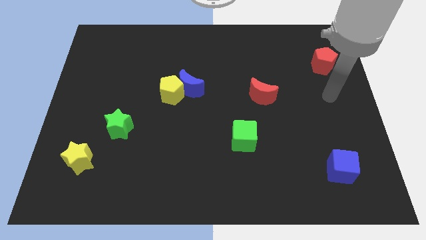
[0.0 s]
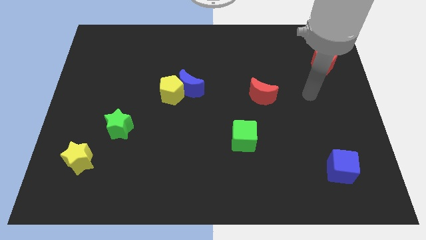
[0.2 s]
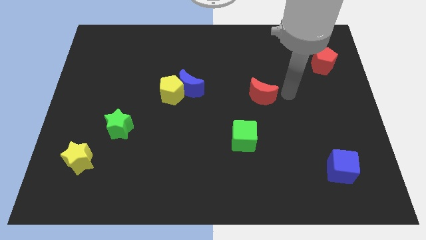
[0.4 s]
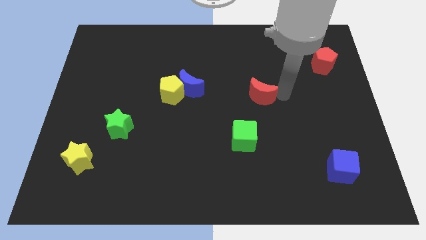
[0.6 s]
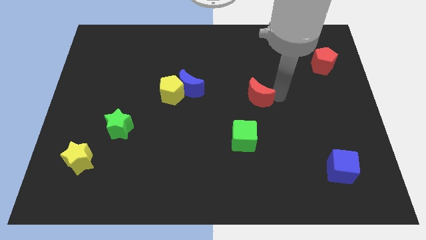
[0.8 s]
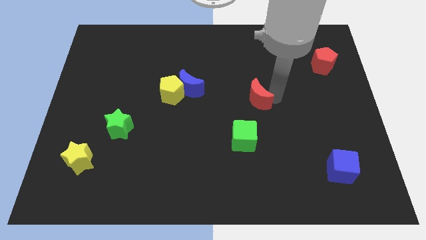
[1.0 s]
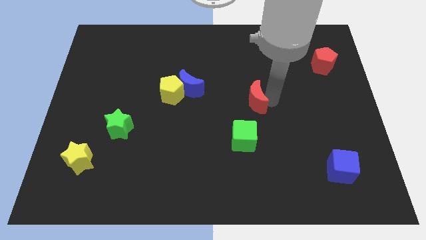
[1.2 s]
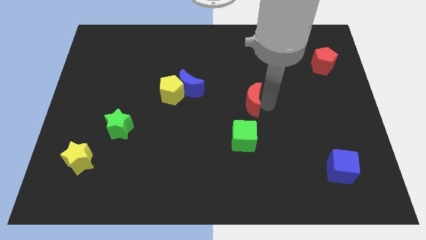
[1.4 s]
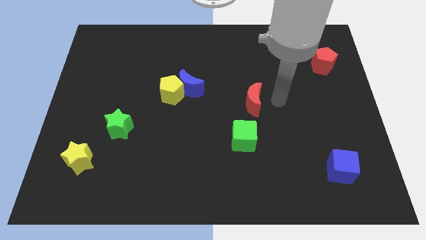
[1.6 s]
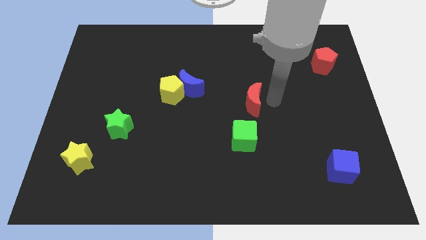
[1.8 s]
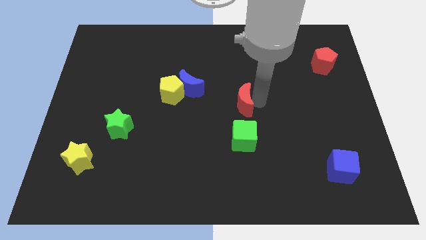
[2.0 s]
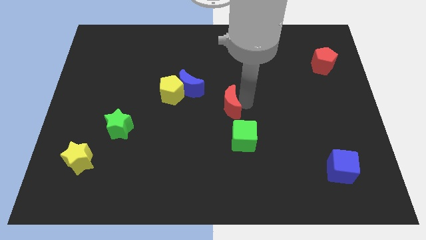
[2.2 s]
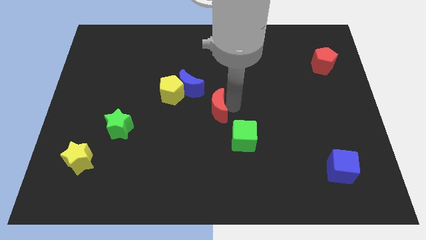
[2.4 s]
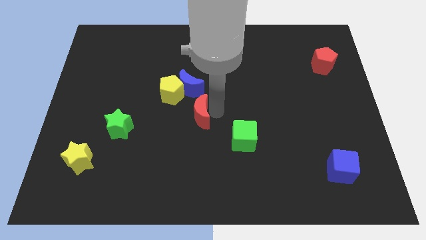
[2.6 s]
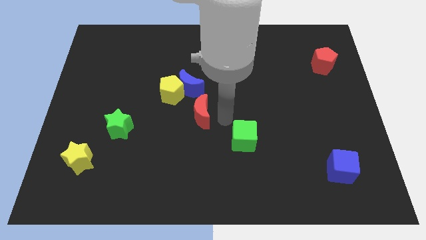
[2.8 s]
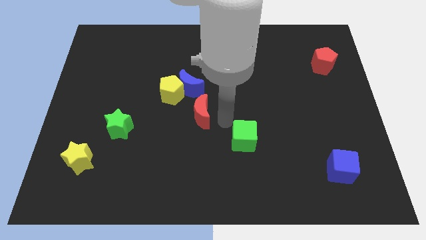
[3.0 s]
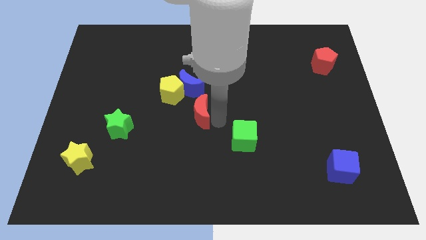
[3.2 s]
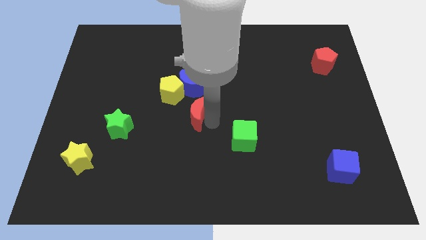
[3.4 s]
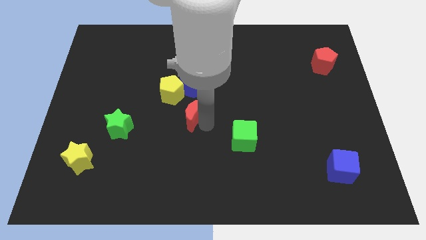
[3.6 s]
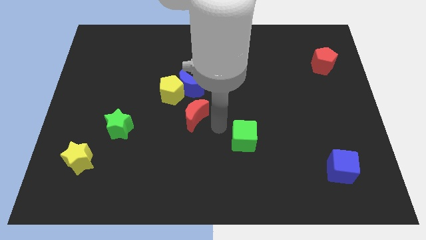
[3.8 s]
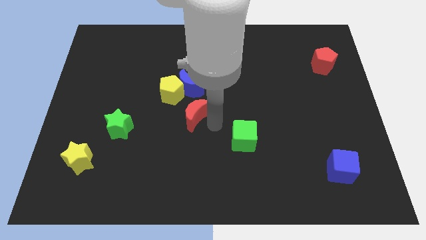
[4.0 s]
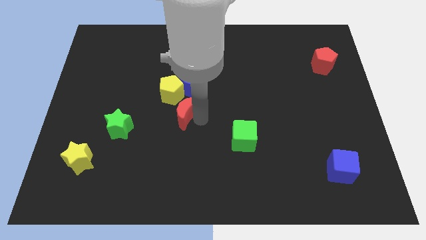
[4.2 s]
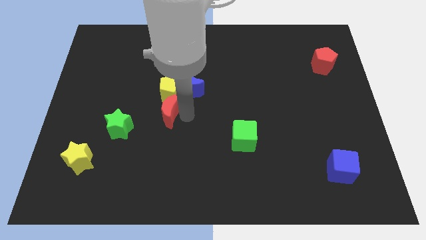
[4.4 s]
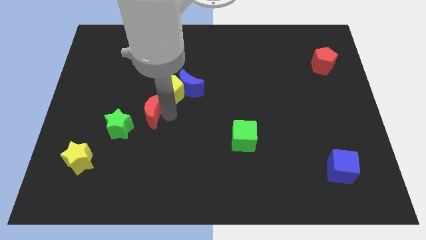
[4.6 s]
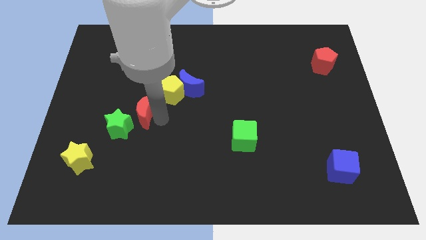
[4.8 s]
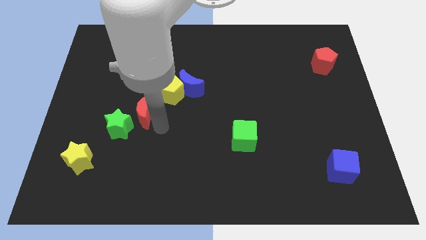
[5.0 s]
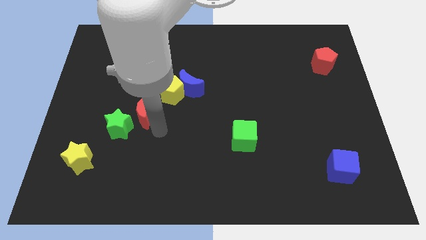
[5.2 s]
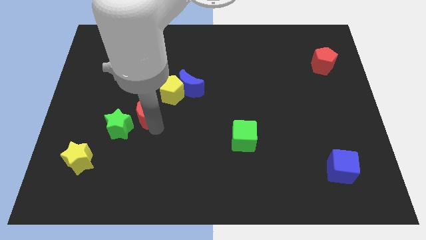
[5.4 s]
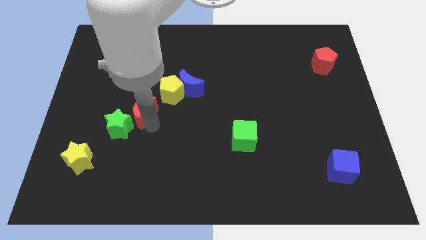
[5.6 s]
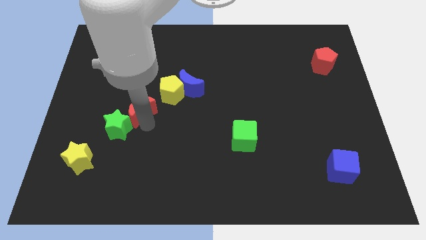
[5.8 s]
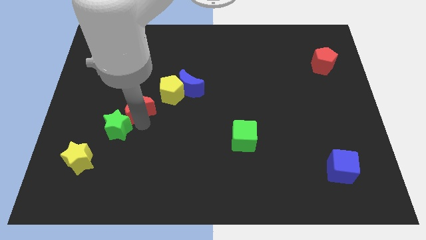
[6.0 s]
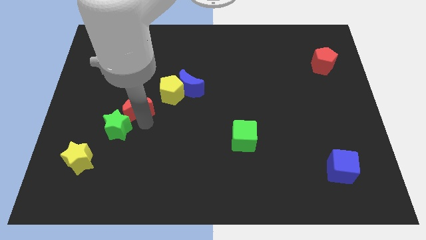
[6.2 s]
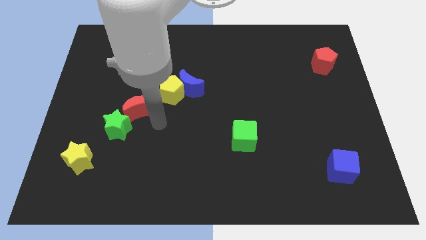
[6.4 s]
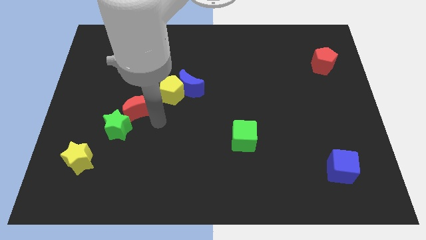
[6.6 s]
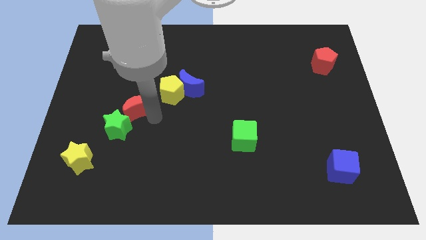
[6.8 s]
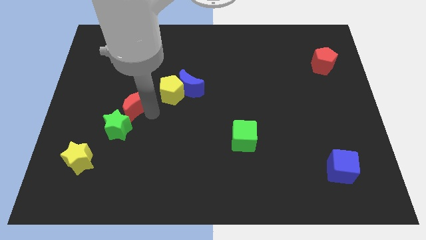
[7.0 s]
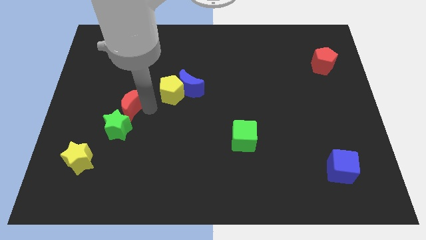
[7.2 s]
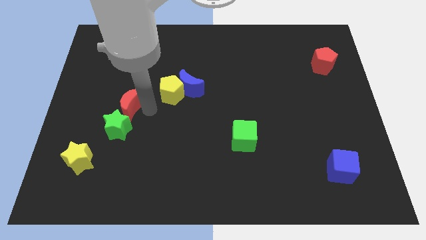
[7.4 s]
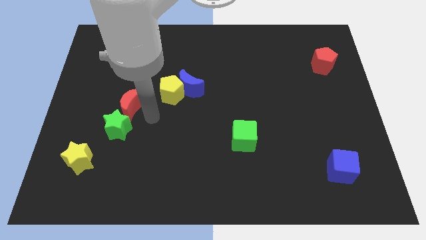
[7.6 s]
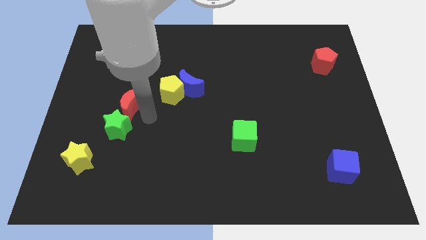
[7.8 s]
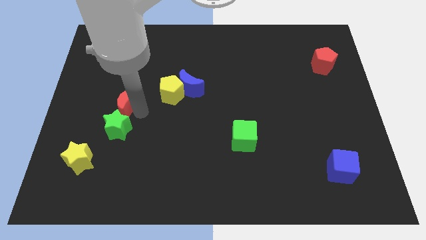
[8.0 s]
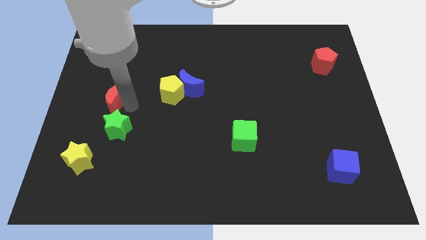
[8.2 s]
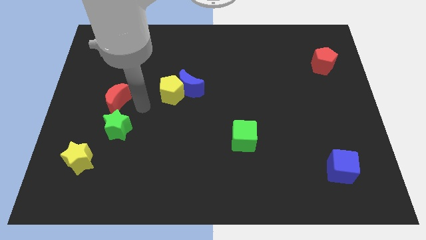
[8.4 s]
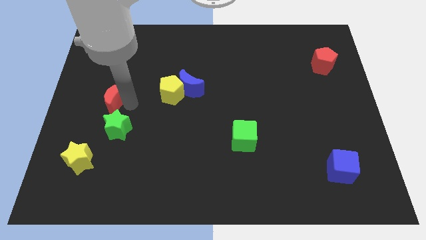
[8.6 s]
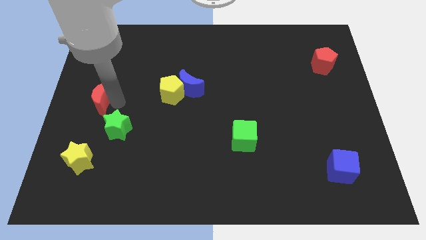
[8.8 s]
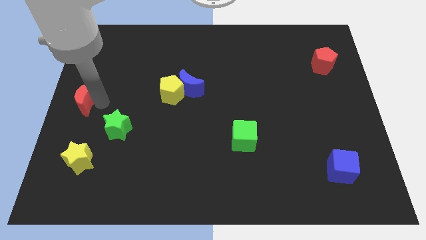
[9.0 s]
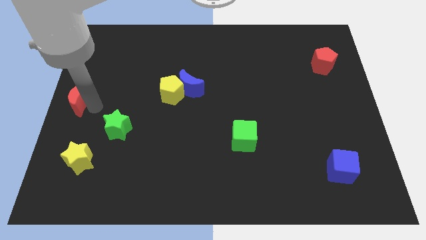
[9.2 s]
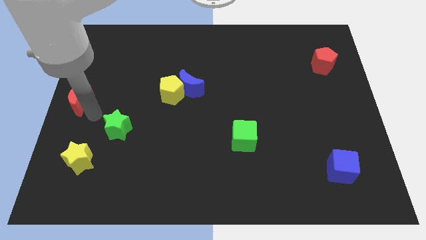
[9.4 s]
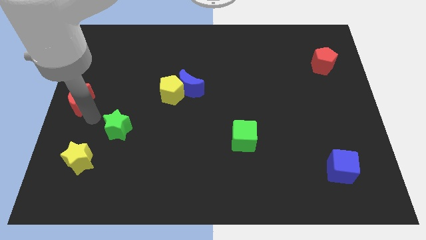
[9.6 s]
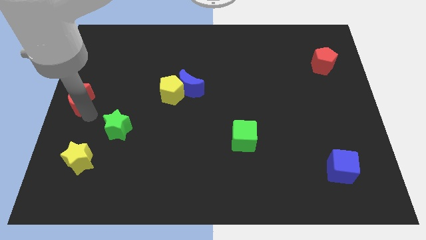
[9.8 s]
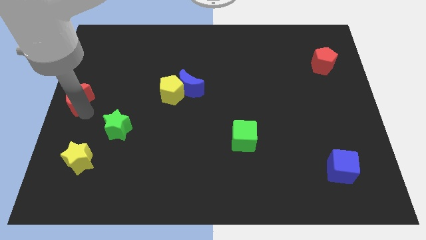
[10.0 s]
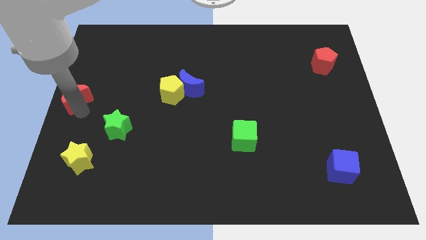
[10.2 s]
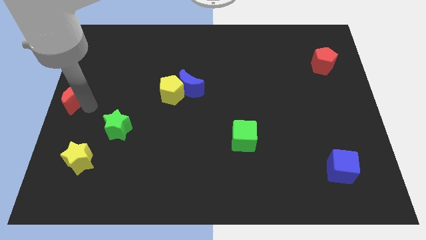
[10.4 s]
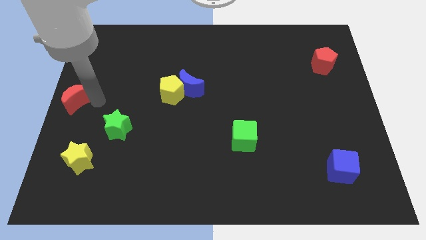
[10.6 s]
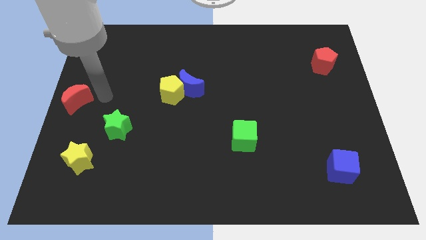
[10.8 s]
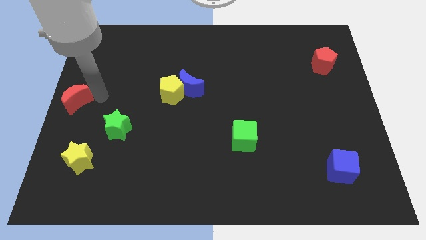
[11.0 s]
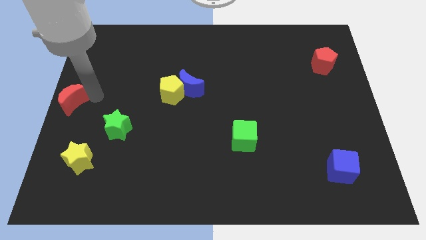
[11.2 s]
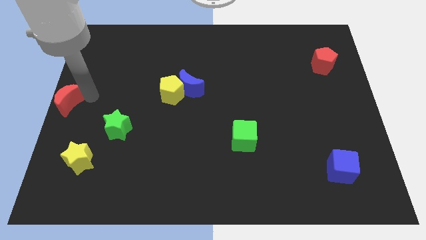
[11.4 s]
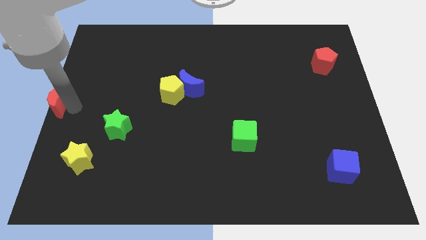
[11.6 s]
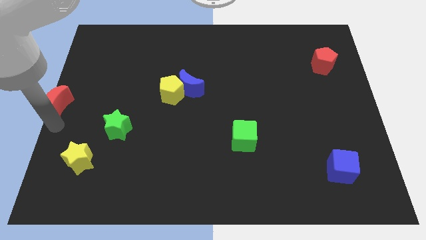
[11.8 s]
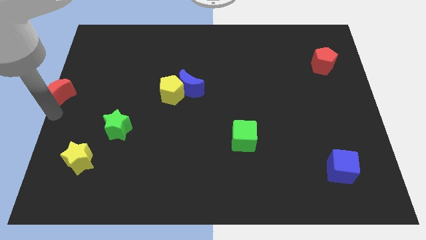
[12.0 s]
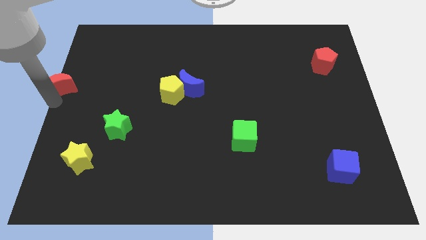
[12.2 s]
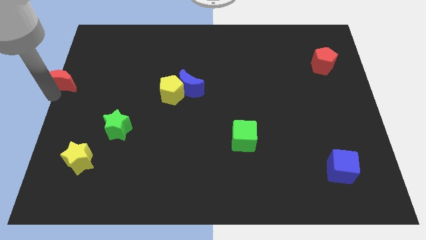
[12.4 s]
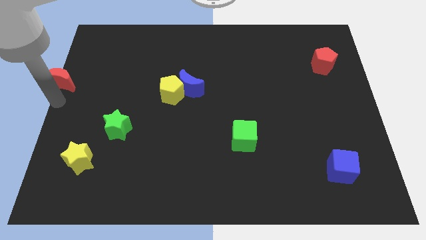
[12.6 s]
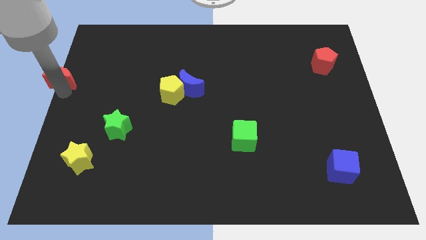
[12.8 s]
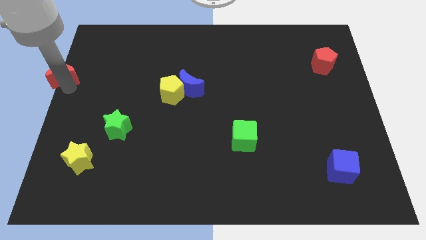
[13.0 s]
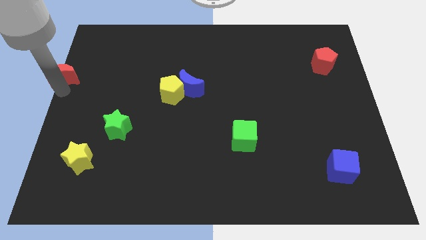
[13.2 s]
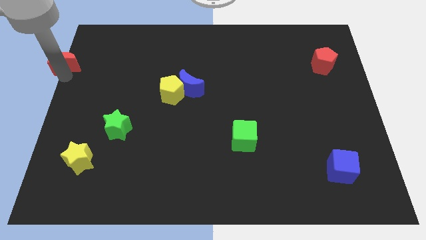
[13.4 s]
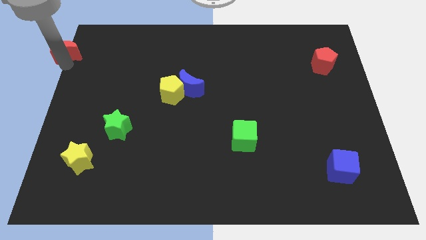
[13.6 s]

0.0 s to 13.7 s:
slide the red moon to the top left

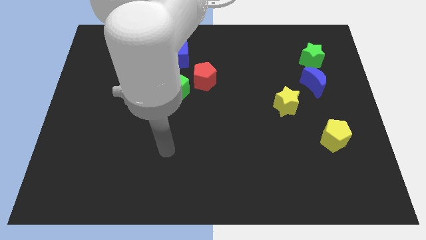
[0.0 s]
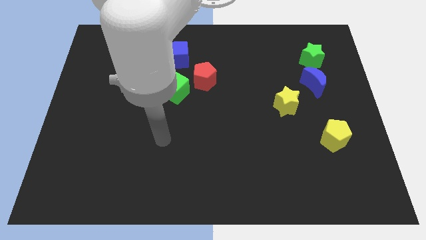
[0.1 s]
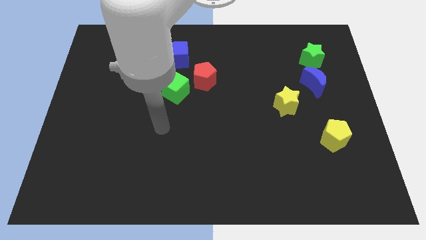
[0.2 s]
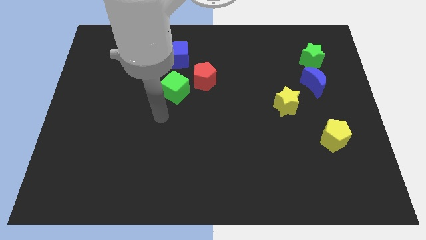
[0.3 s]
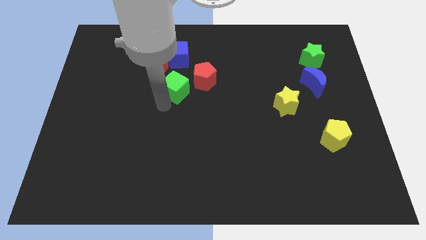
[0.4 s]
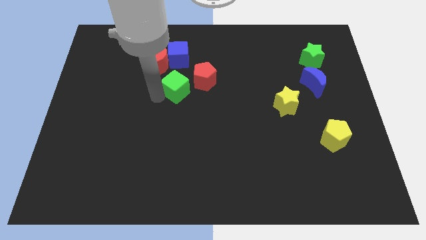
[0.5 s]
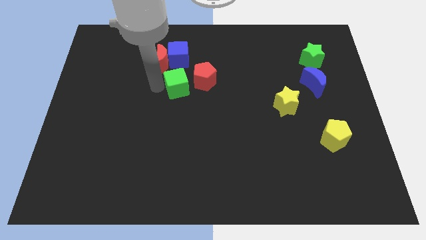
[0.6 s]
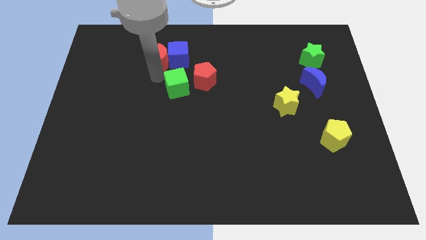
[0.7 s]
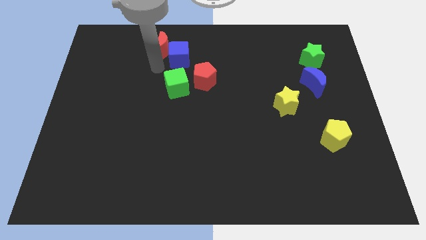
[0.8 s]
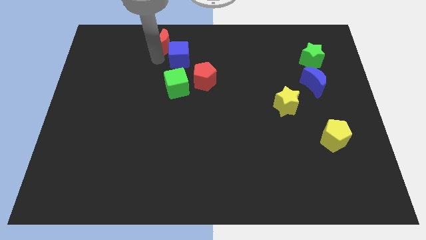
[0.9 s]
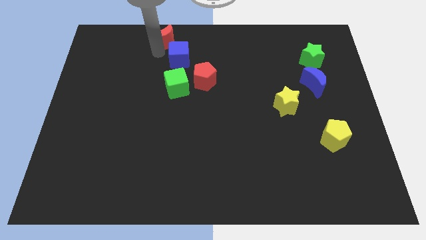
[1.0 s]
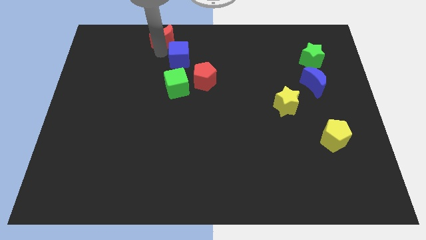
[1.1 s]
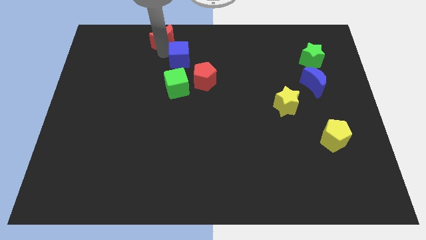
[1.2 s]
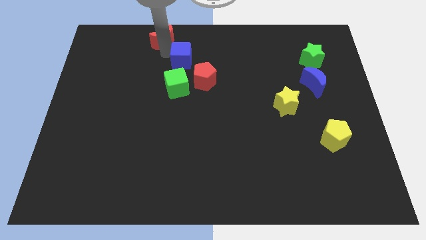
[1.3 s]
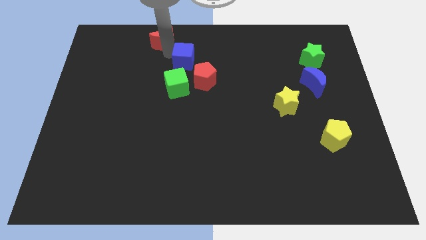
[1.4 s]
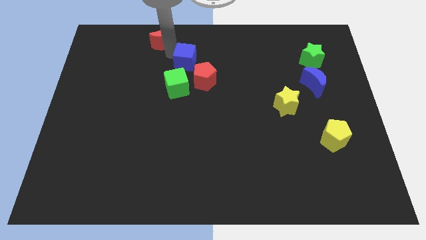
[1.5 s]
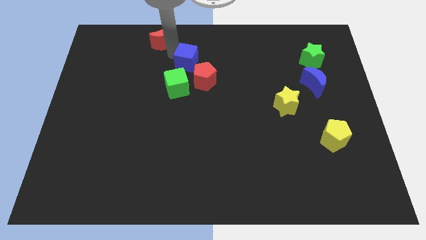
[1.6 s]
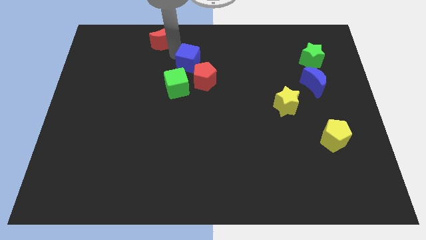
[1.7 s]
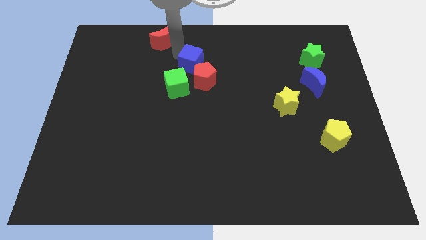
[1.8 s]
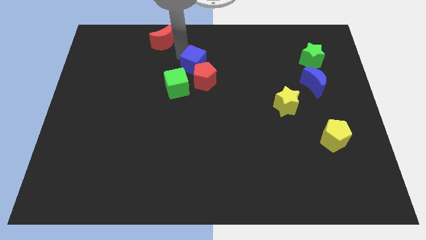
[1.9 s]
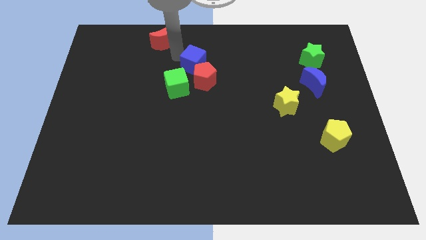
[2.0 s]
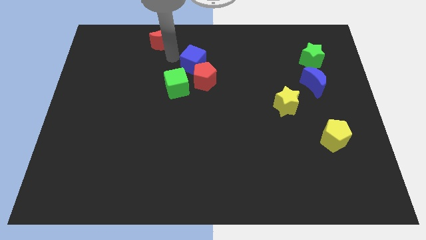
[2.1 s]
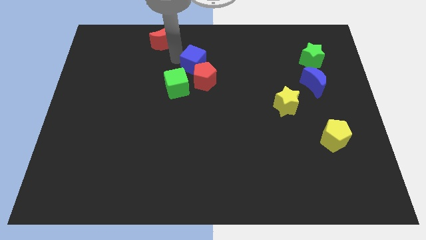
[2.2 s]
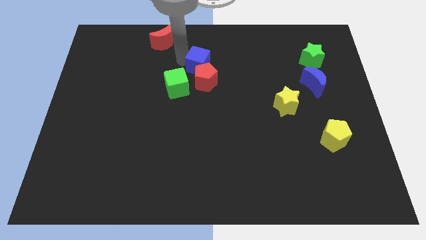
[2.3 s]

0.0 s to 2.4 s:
move the blue cube to the middle of the board
